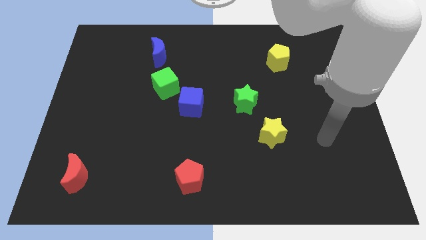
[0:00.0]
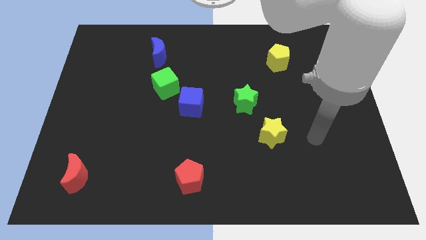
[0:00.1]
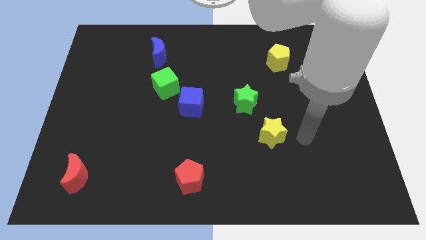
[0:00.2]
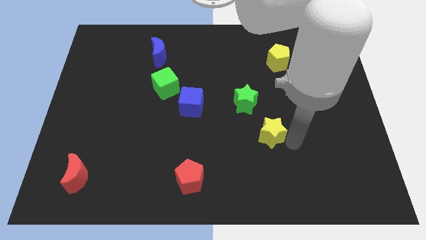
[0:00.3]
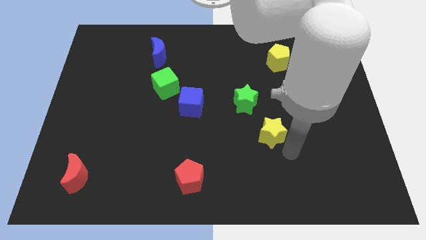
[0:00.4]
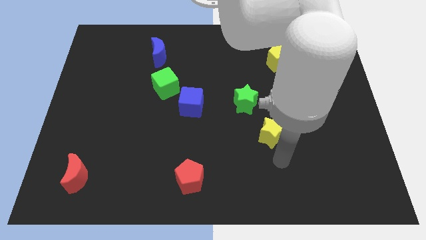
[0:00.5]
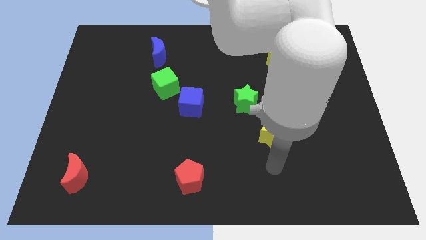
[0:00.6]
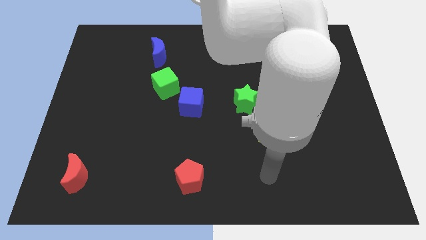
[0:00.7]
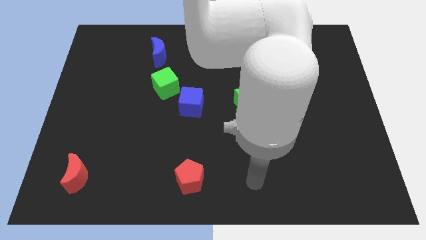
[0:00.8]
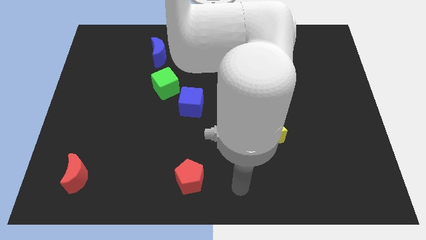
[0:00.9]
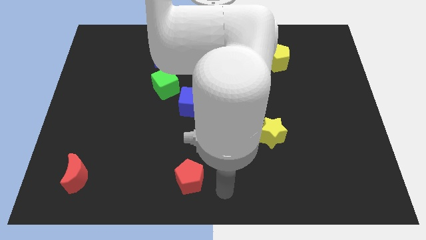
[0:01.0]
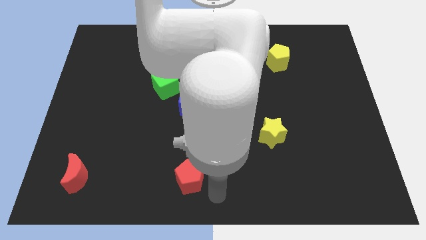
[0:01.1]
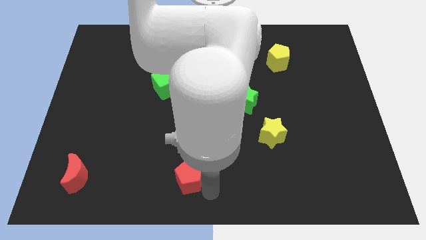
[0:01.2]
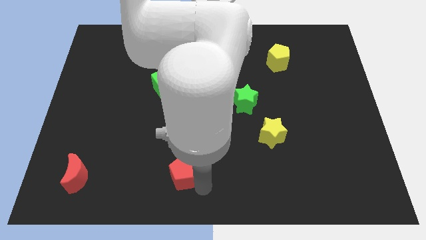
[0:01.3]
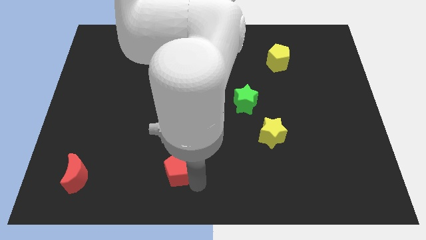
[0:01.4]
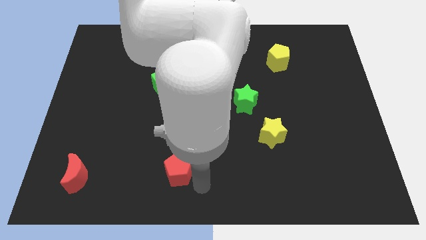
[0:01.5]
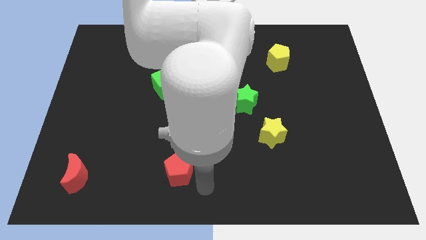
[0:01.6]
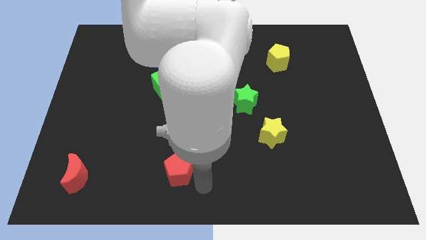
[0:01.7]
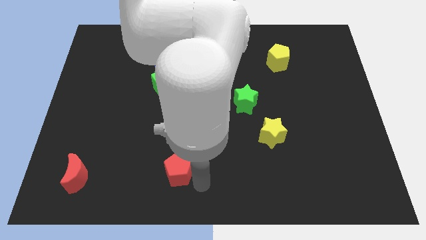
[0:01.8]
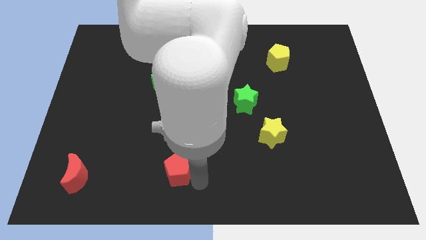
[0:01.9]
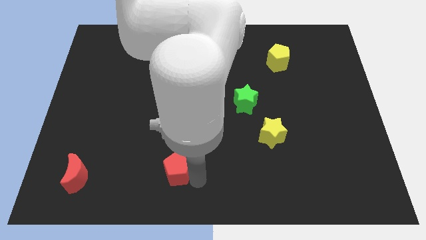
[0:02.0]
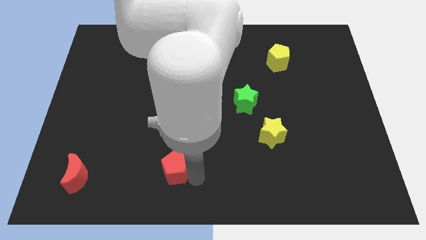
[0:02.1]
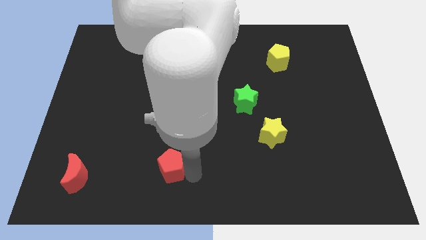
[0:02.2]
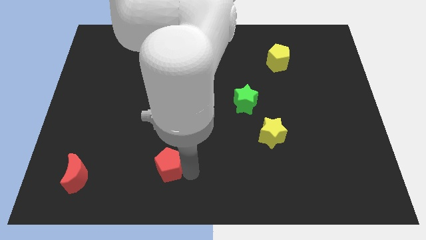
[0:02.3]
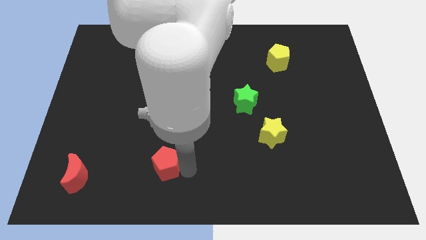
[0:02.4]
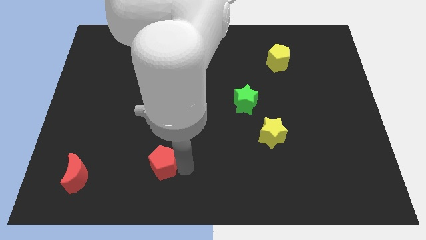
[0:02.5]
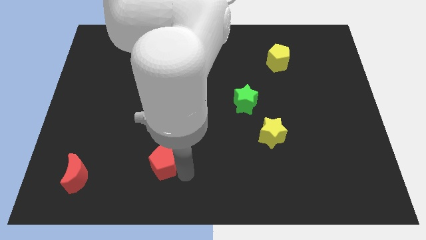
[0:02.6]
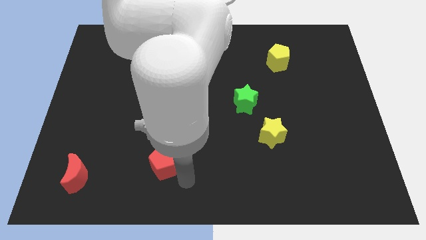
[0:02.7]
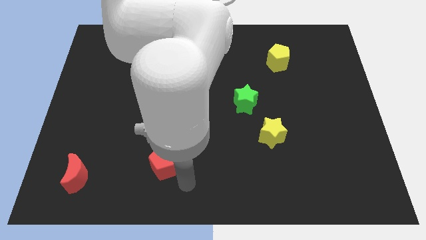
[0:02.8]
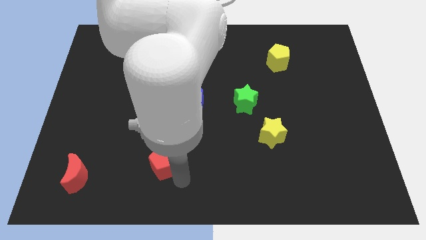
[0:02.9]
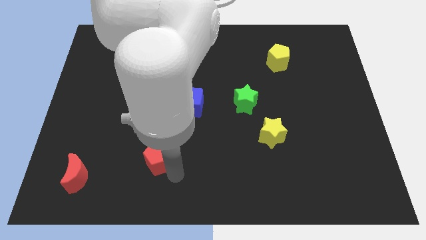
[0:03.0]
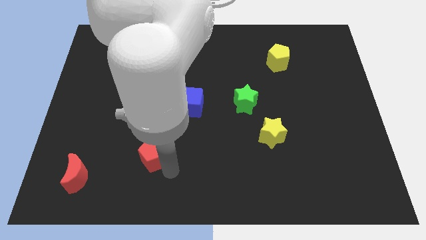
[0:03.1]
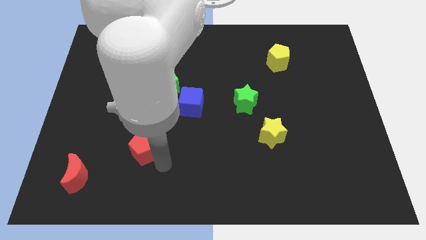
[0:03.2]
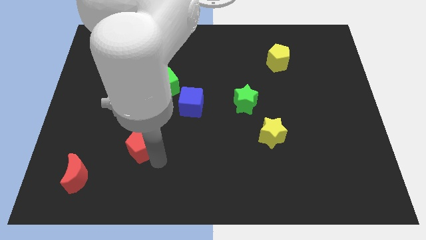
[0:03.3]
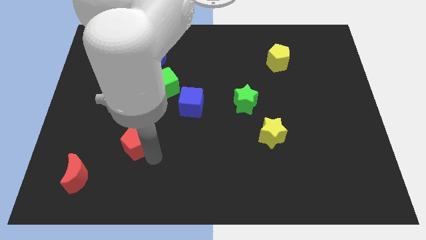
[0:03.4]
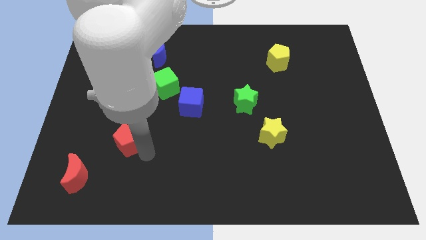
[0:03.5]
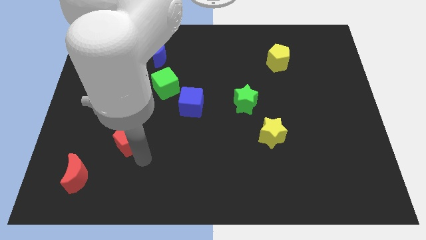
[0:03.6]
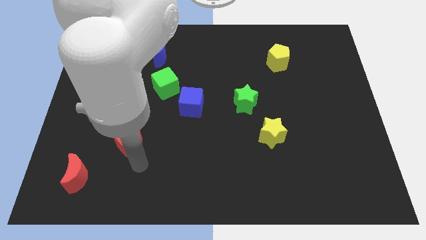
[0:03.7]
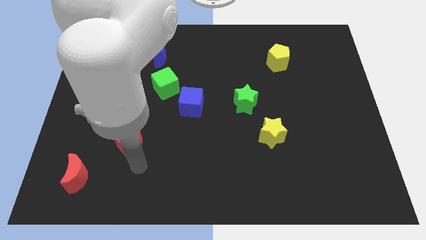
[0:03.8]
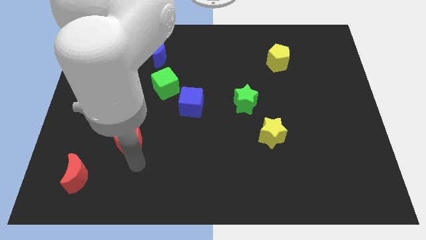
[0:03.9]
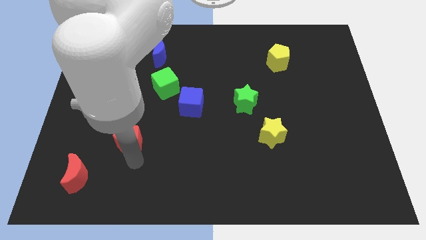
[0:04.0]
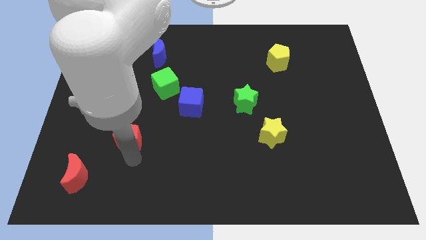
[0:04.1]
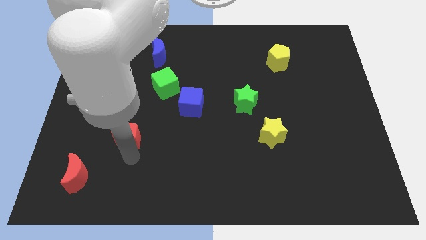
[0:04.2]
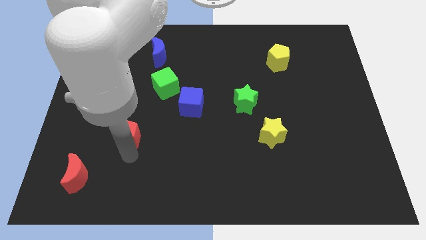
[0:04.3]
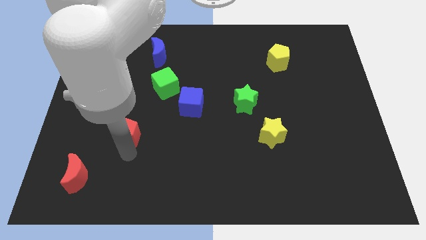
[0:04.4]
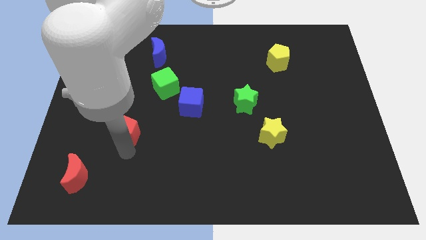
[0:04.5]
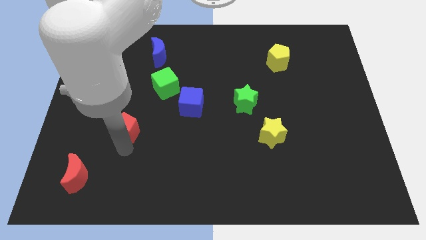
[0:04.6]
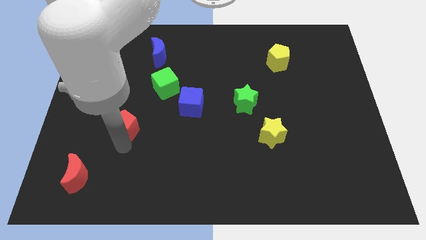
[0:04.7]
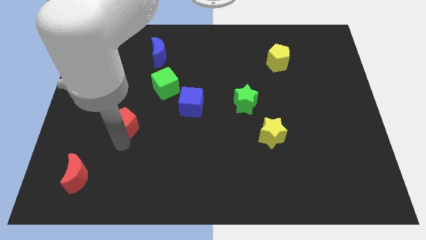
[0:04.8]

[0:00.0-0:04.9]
push the red pentagon up and then left

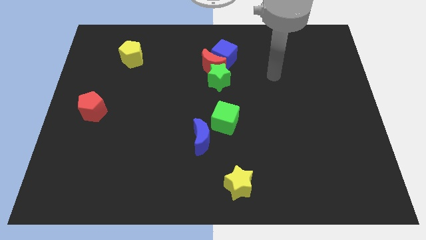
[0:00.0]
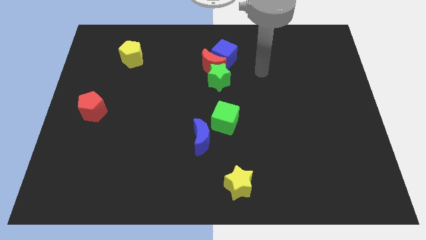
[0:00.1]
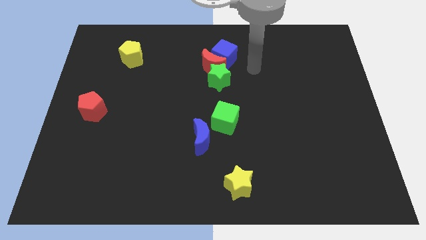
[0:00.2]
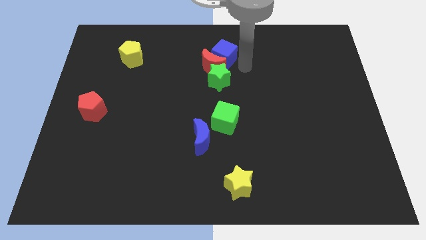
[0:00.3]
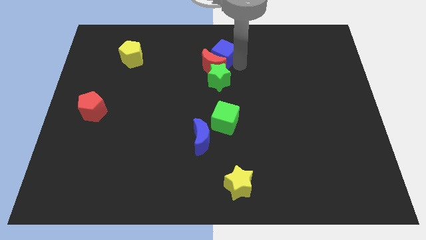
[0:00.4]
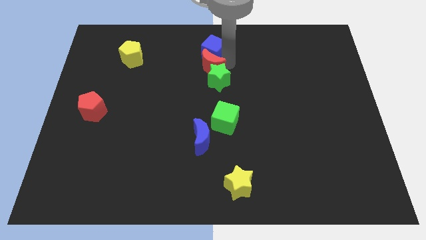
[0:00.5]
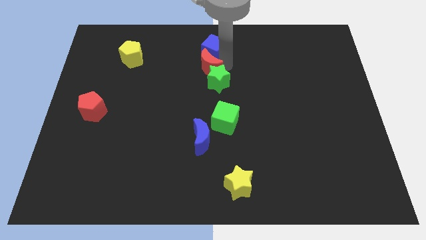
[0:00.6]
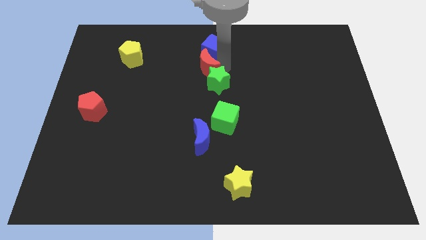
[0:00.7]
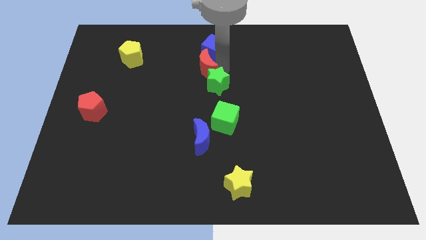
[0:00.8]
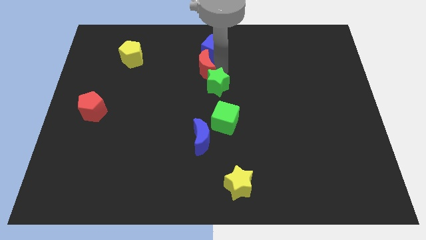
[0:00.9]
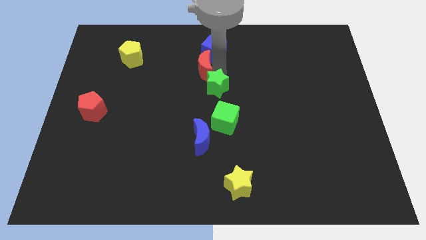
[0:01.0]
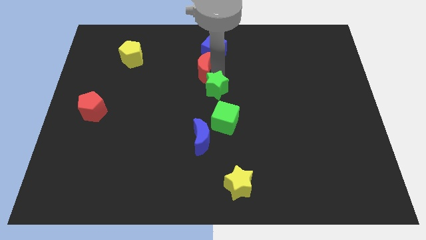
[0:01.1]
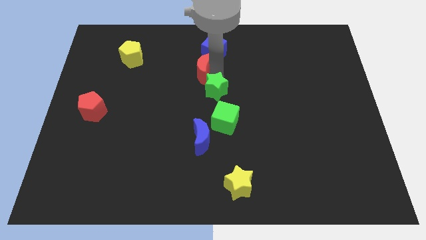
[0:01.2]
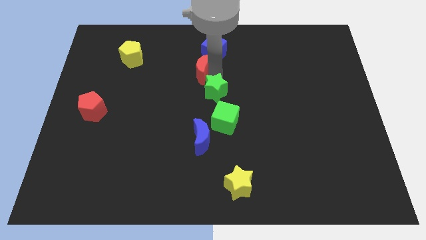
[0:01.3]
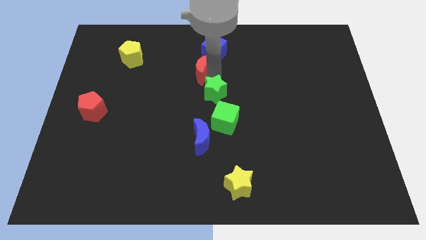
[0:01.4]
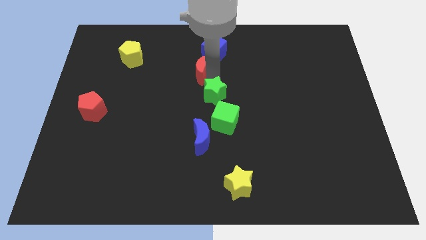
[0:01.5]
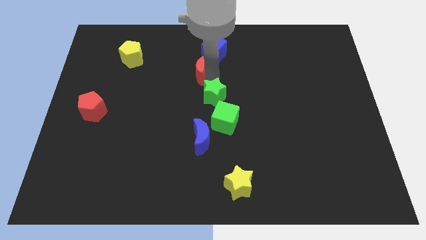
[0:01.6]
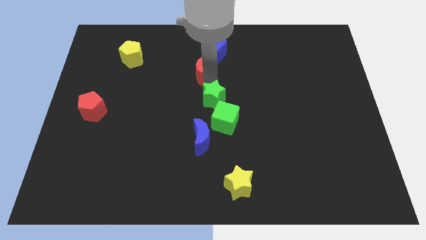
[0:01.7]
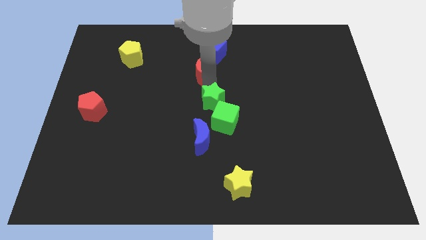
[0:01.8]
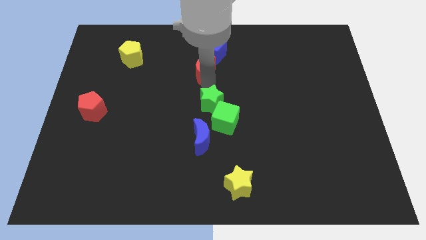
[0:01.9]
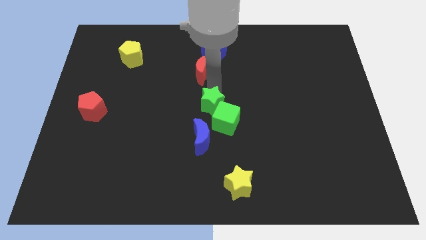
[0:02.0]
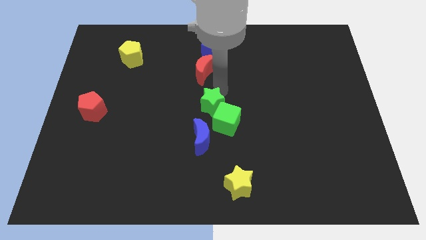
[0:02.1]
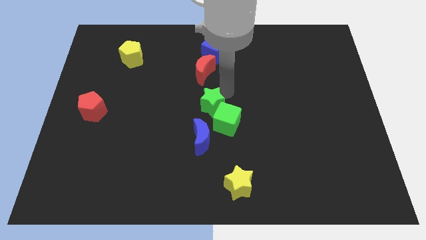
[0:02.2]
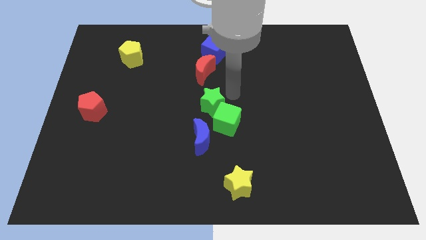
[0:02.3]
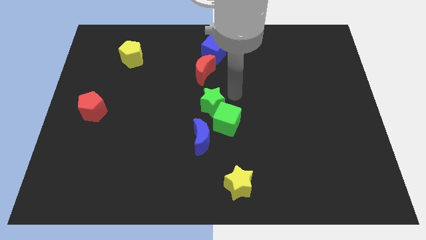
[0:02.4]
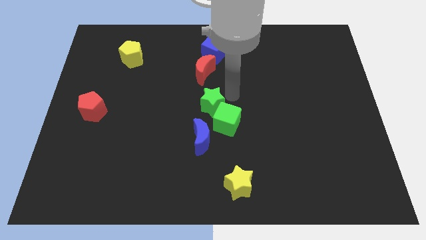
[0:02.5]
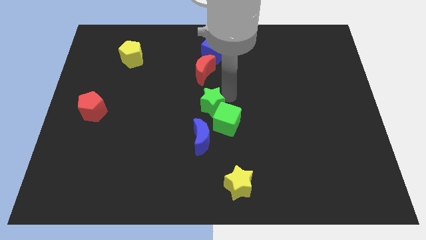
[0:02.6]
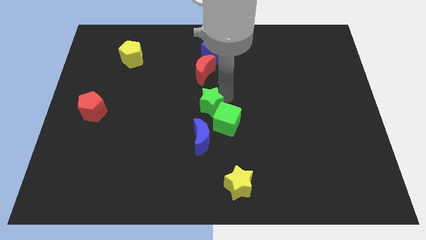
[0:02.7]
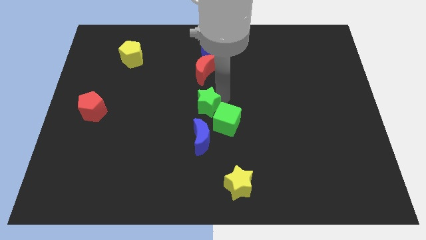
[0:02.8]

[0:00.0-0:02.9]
slightly move the green star down and to the left diagonally

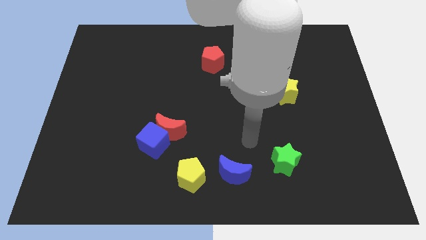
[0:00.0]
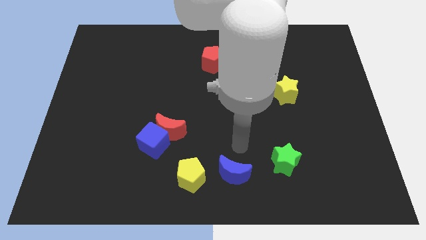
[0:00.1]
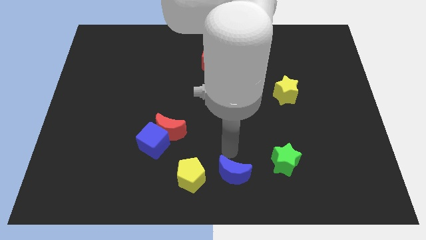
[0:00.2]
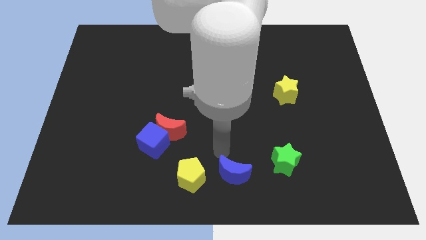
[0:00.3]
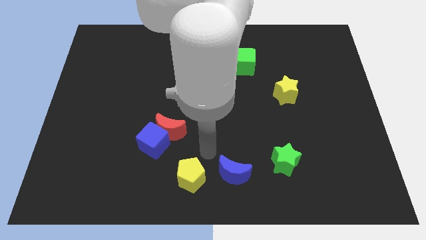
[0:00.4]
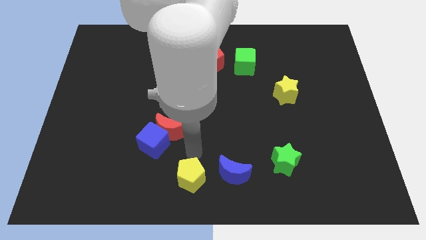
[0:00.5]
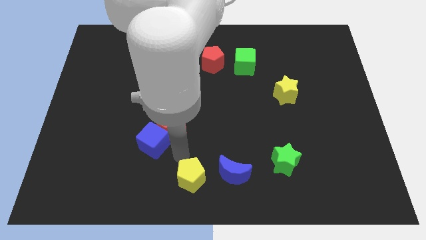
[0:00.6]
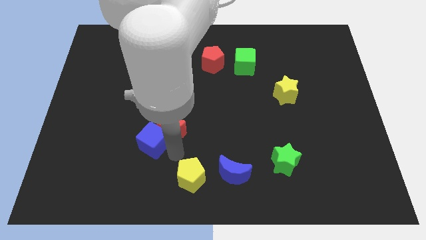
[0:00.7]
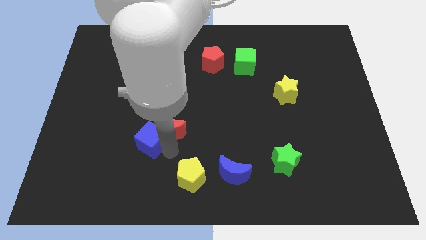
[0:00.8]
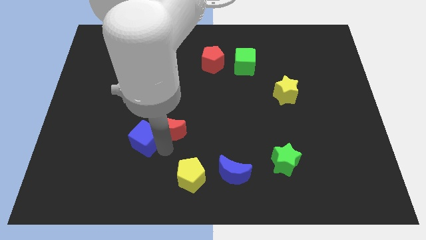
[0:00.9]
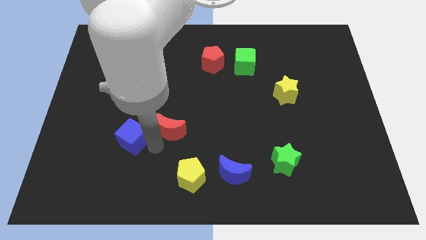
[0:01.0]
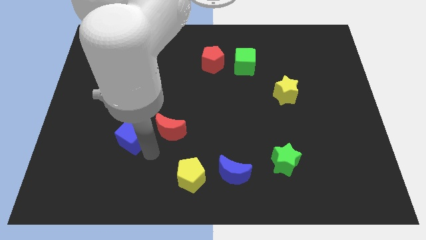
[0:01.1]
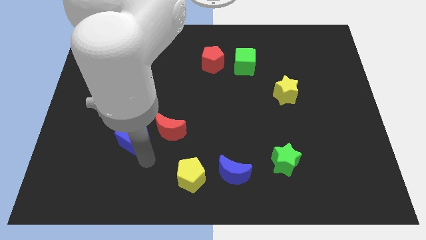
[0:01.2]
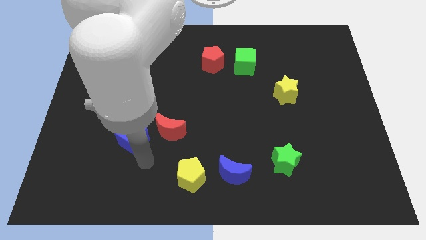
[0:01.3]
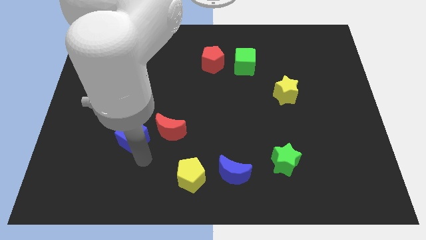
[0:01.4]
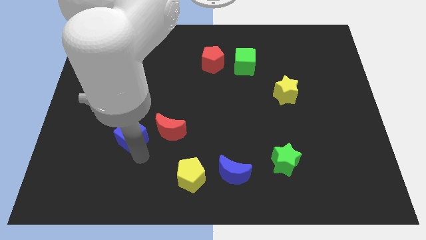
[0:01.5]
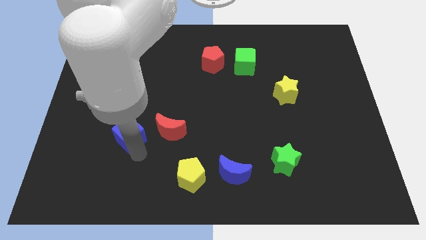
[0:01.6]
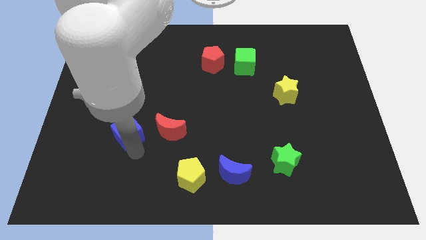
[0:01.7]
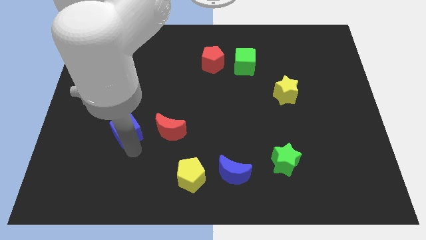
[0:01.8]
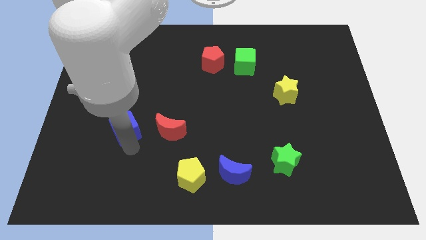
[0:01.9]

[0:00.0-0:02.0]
slightly slide the blue cube upwards and then to the left
